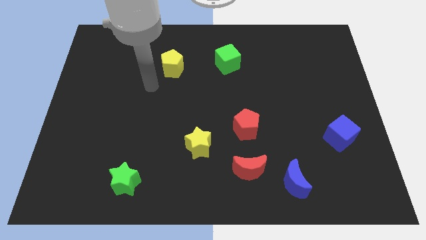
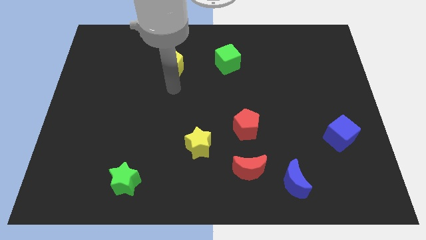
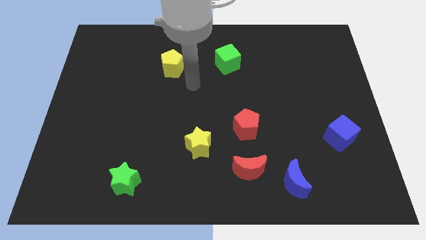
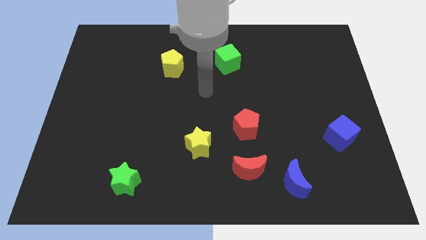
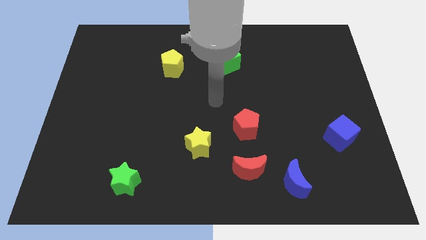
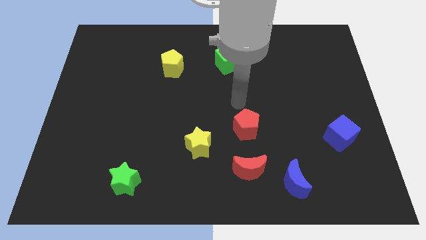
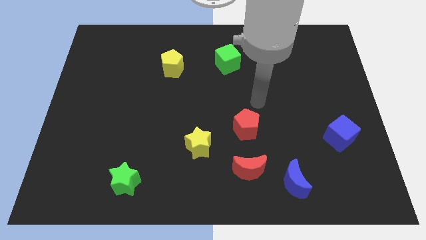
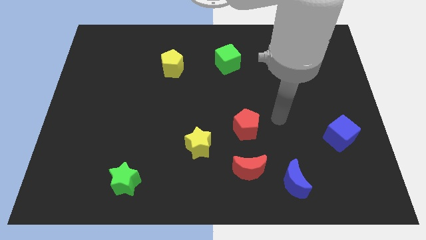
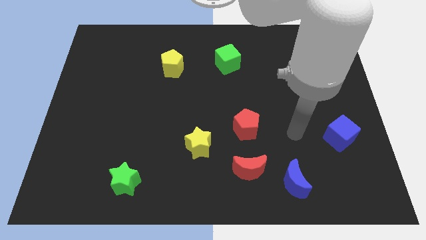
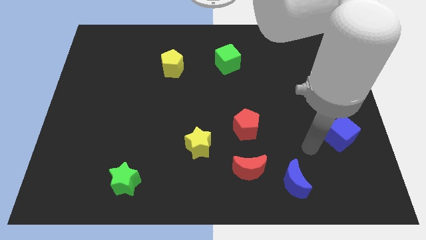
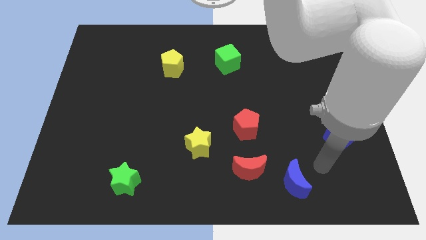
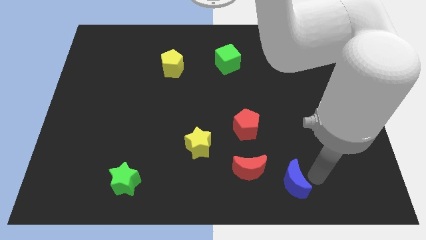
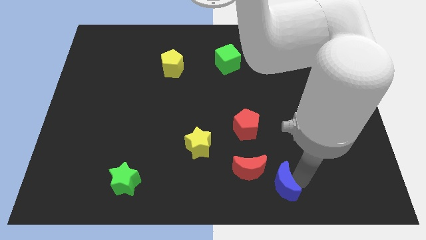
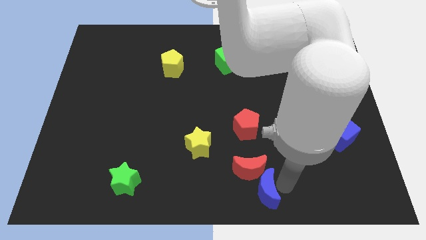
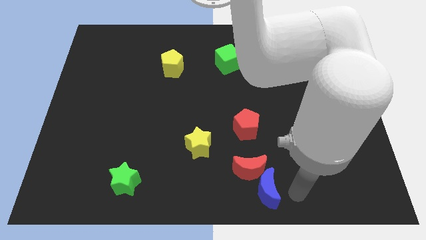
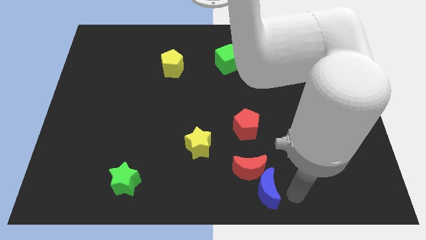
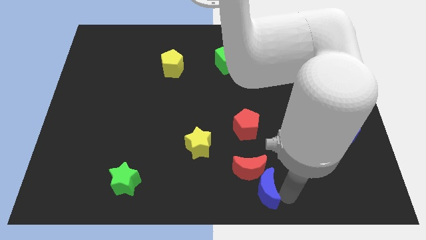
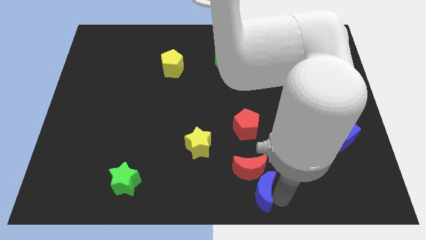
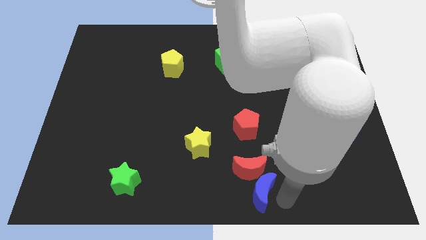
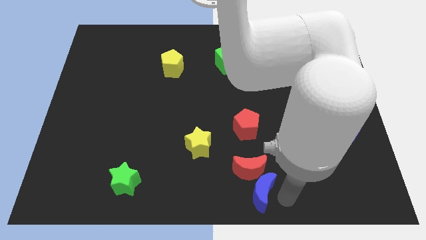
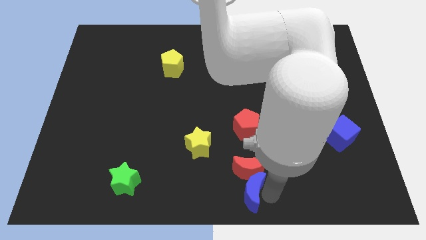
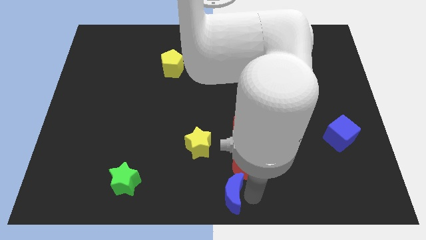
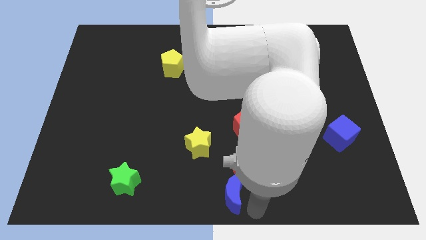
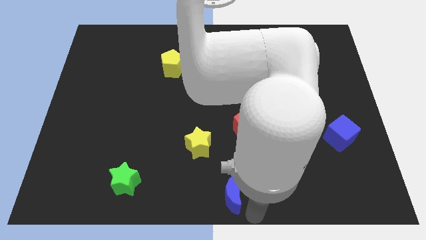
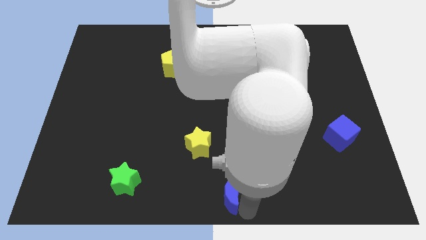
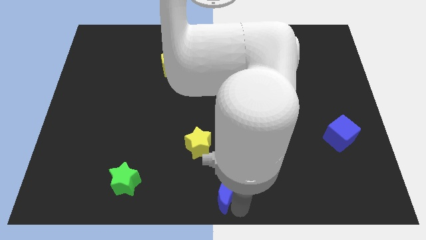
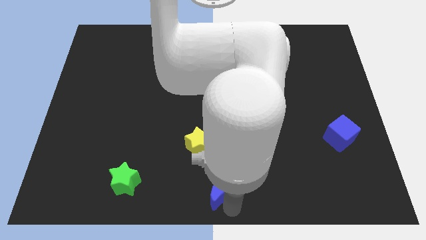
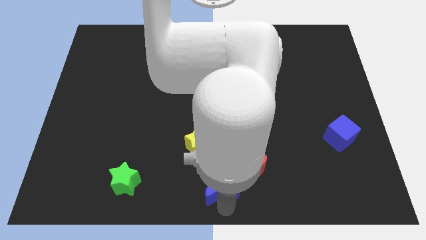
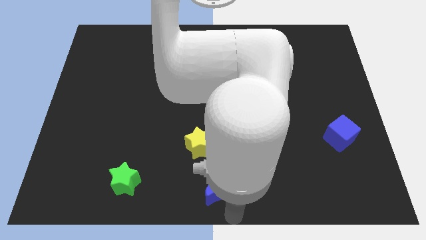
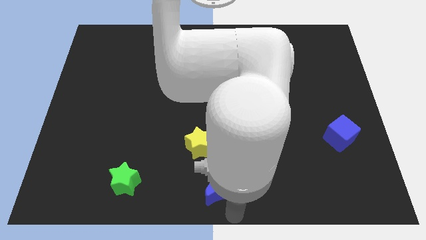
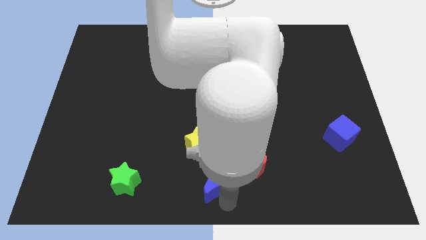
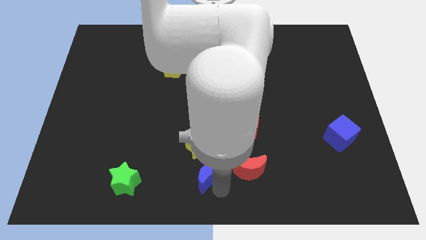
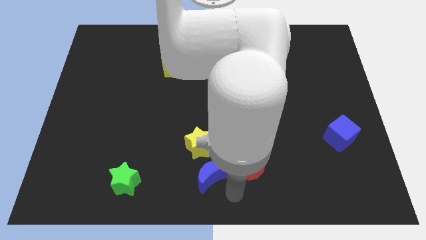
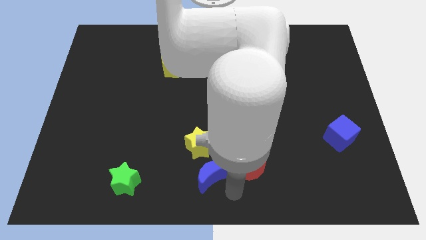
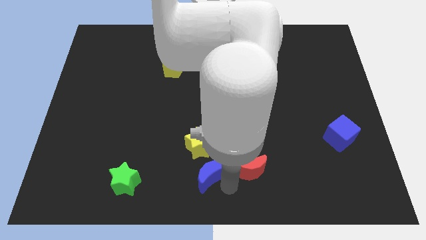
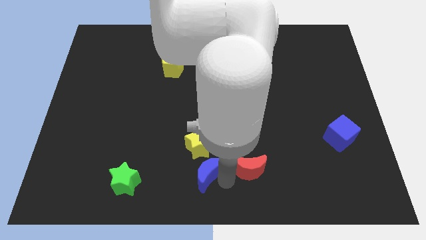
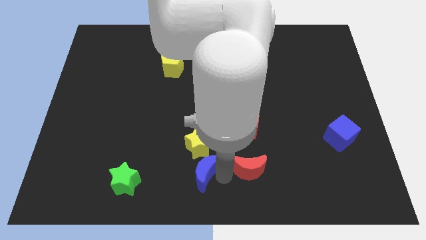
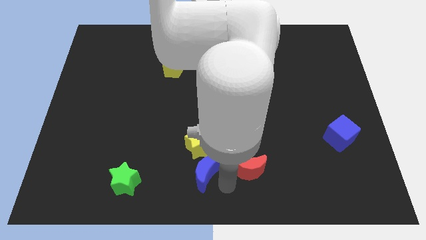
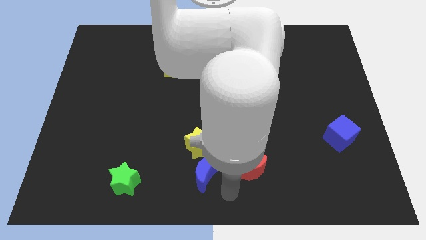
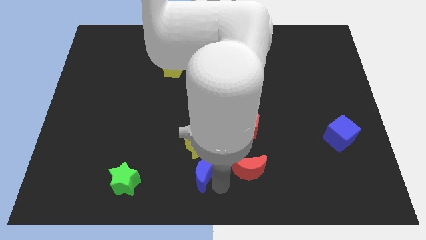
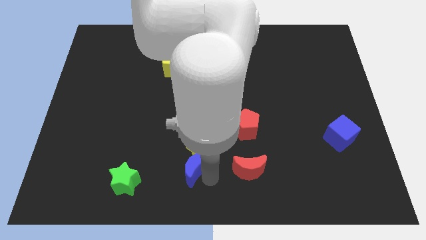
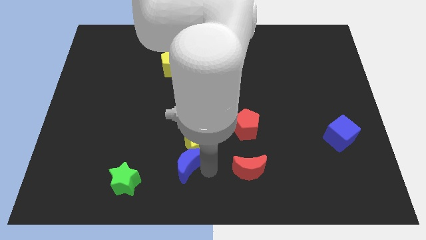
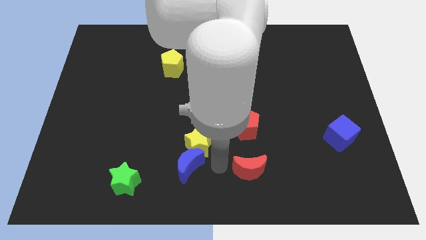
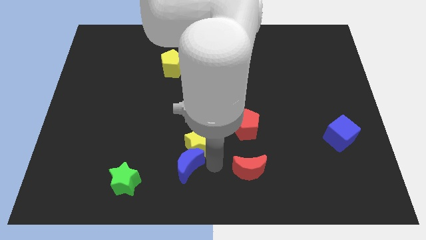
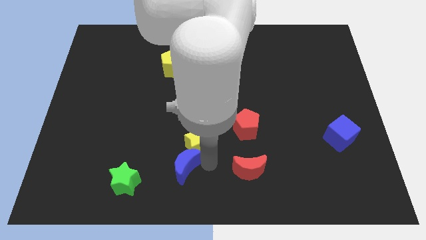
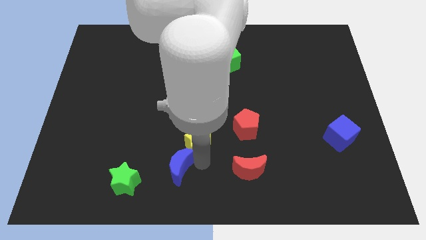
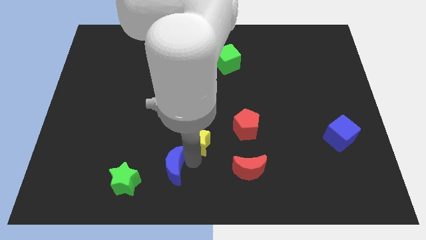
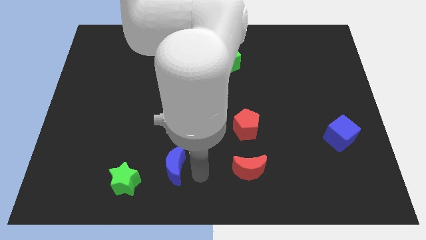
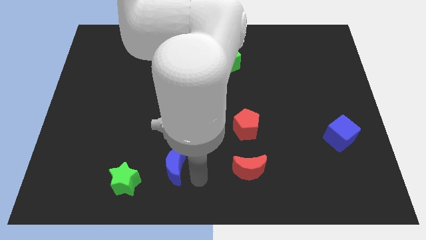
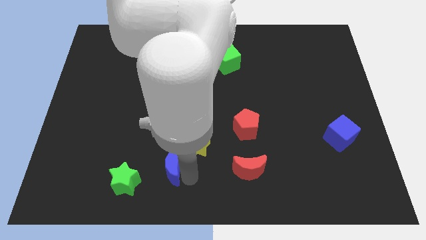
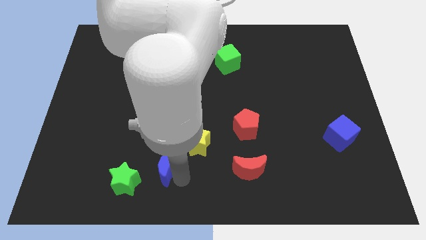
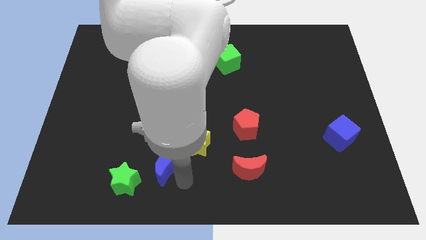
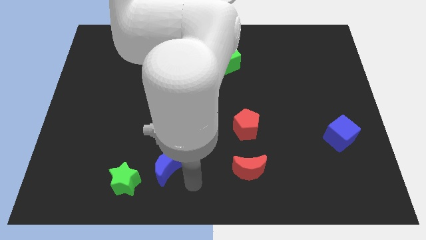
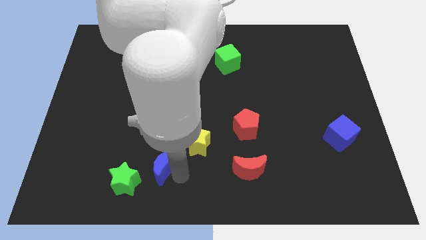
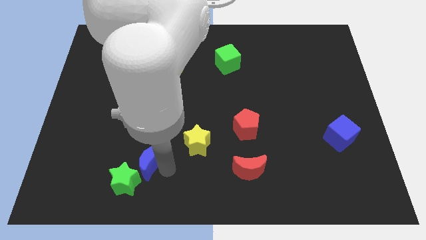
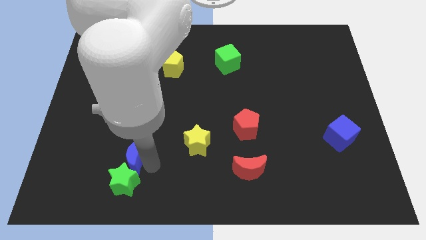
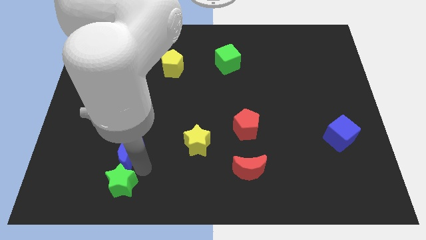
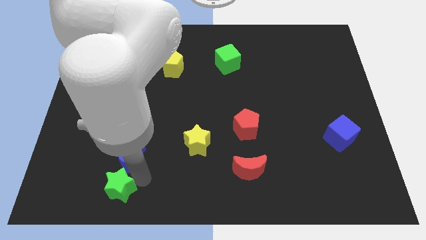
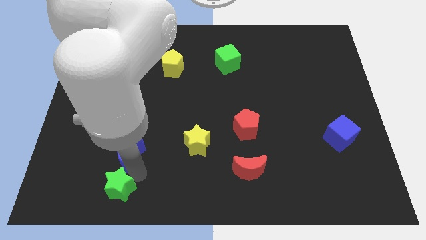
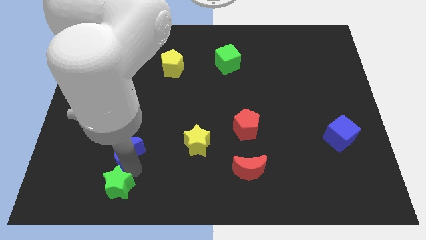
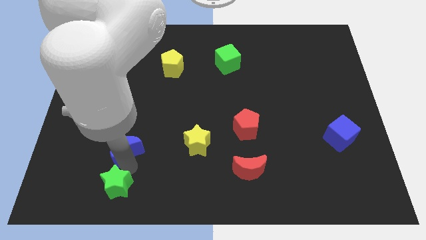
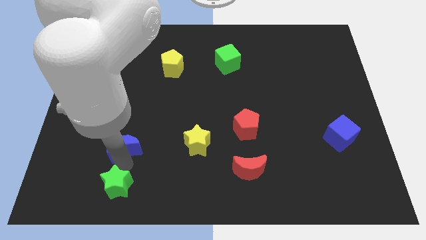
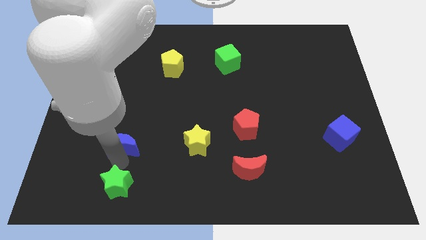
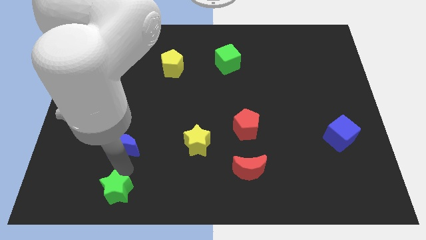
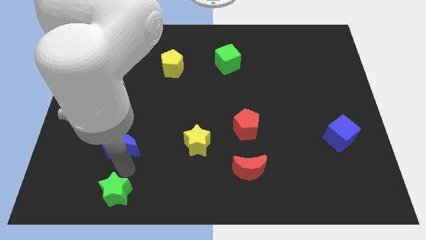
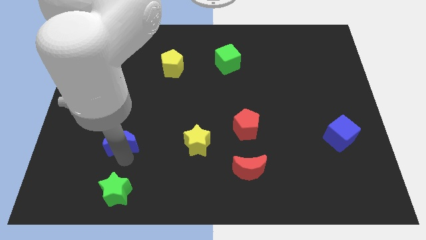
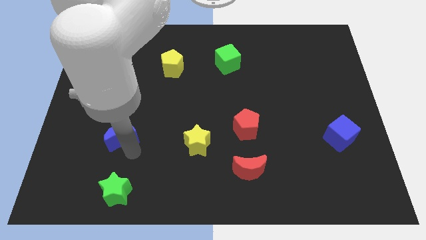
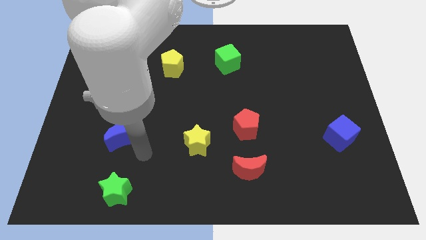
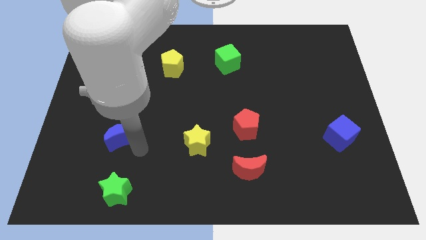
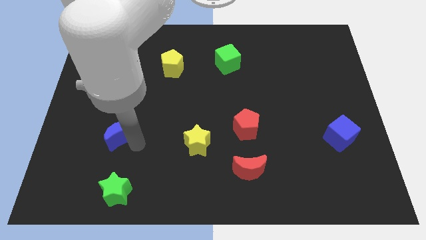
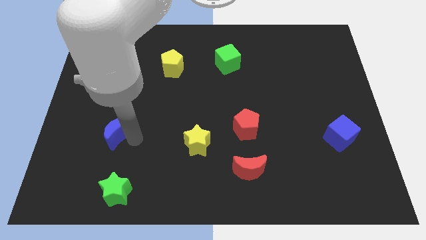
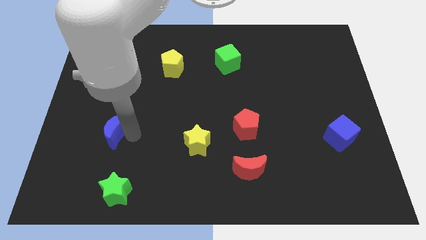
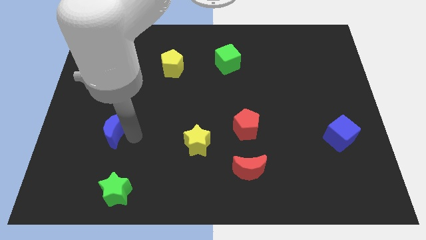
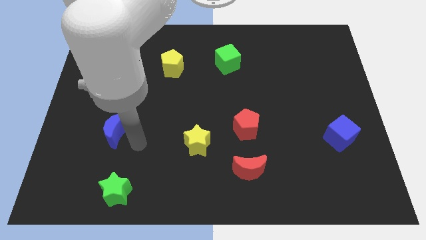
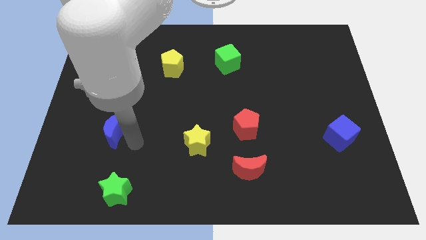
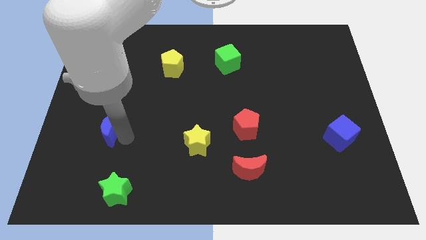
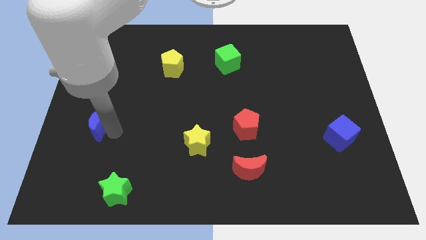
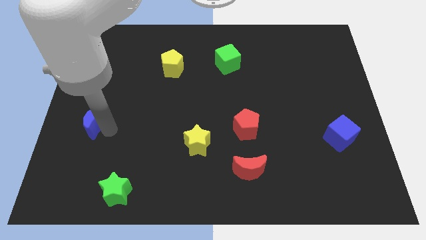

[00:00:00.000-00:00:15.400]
push the blue moon to the center left
